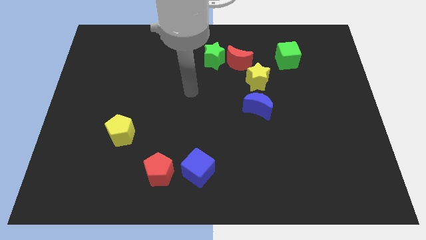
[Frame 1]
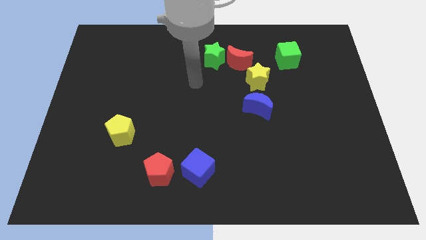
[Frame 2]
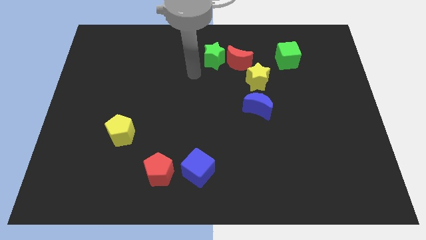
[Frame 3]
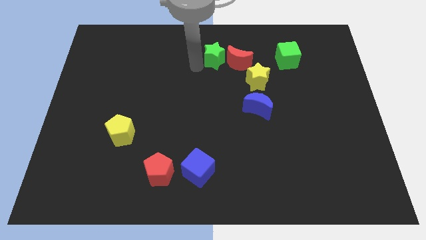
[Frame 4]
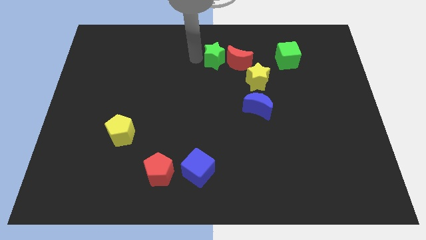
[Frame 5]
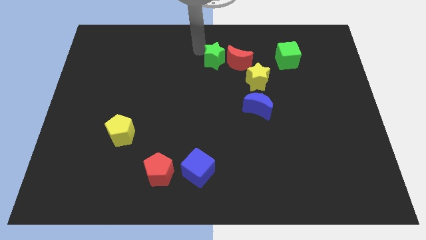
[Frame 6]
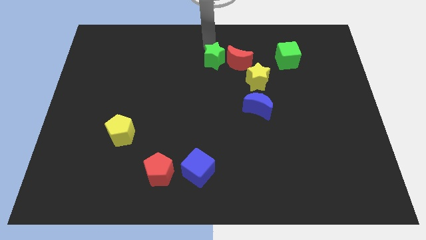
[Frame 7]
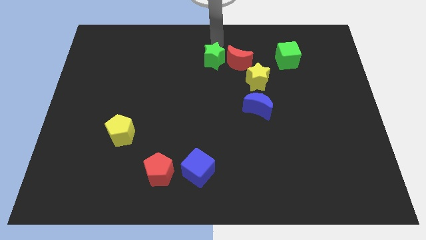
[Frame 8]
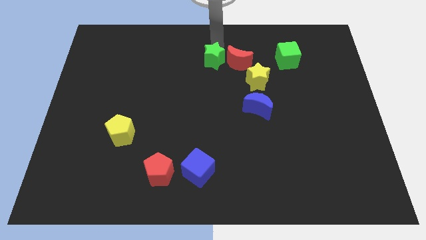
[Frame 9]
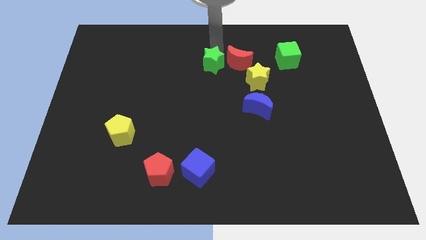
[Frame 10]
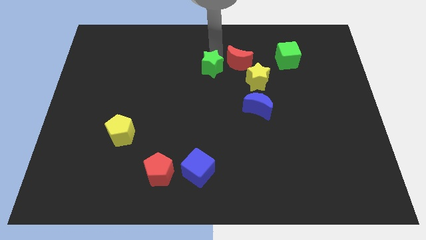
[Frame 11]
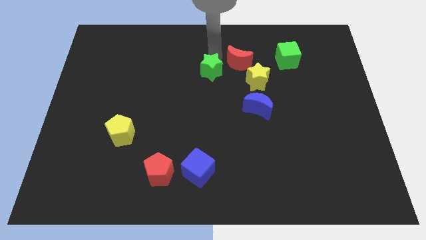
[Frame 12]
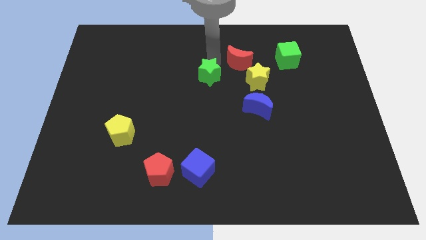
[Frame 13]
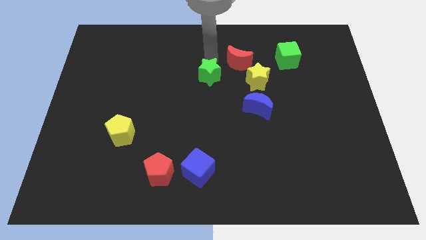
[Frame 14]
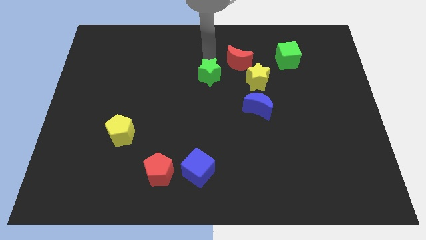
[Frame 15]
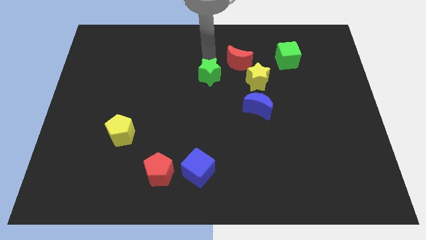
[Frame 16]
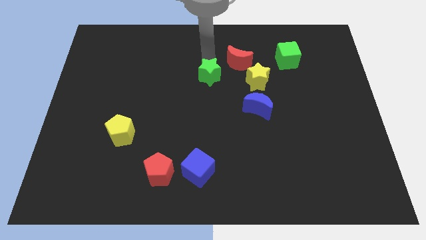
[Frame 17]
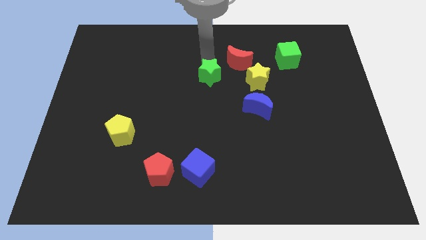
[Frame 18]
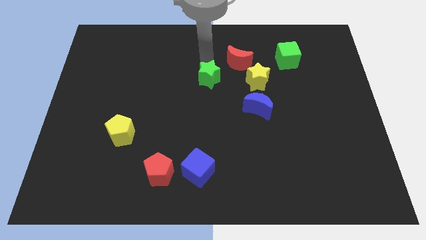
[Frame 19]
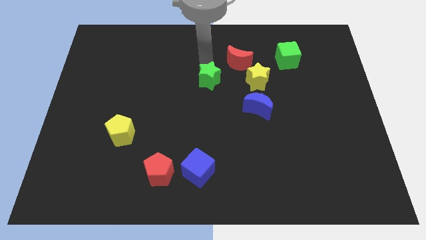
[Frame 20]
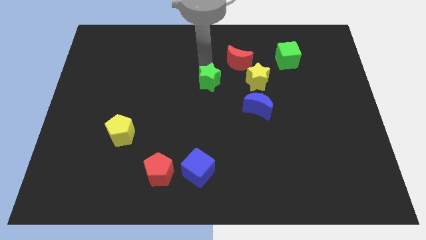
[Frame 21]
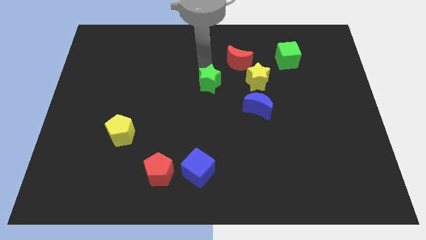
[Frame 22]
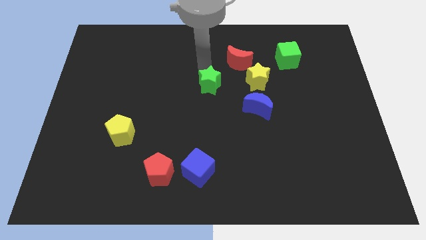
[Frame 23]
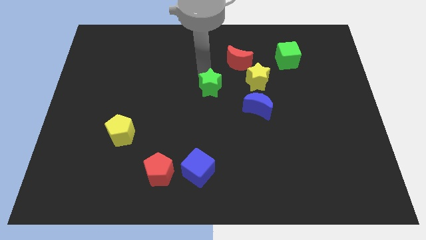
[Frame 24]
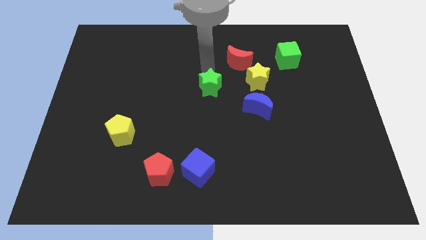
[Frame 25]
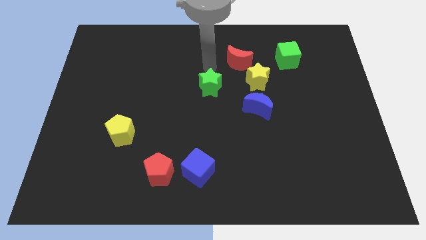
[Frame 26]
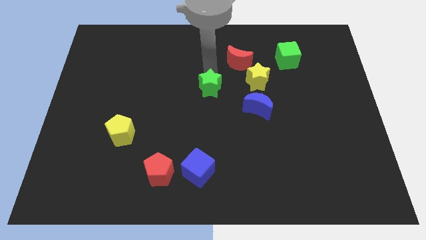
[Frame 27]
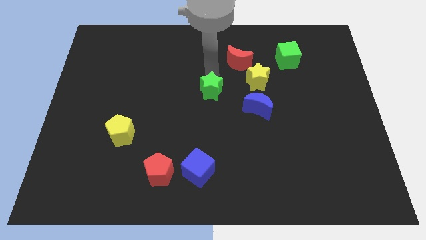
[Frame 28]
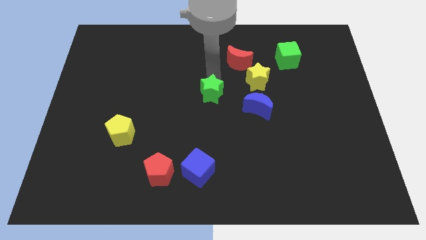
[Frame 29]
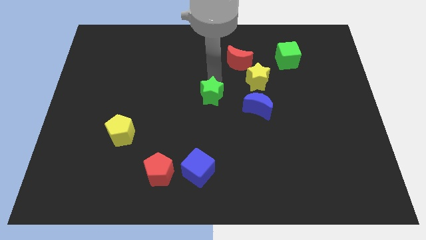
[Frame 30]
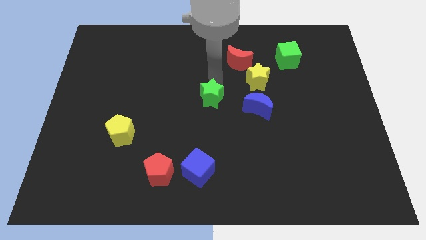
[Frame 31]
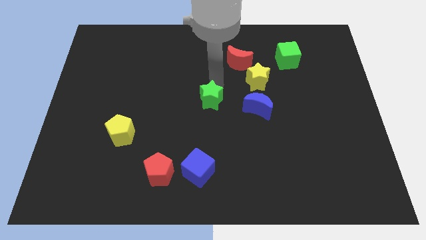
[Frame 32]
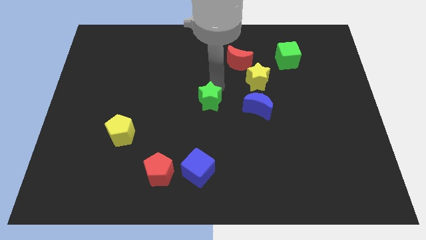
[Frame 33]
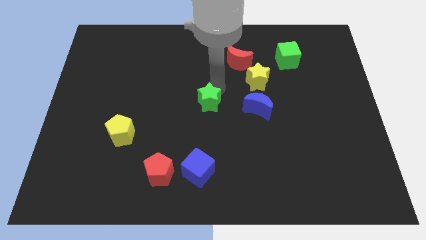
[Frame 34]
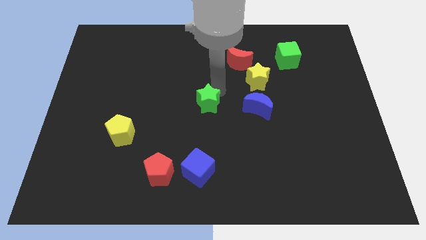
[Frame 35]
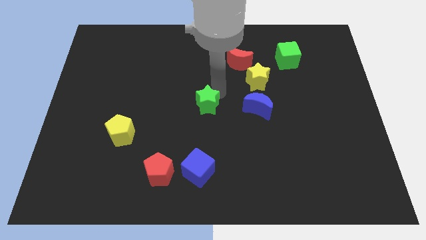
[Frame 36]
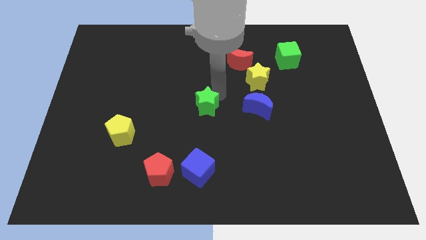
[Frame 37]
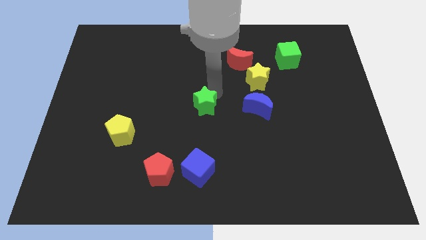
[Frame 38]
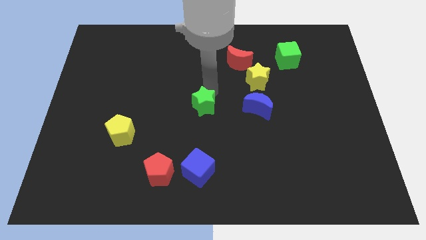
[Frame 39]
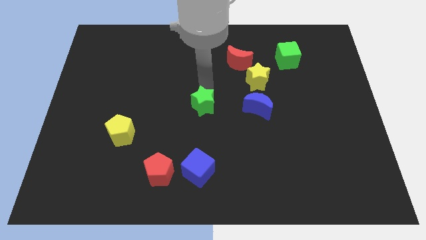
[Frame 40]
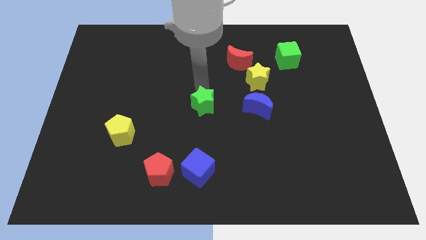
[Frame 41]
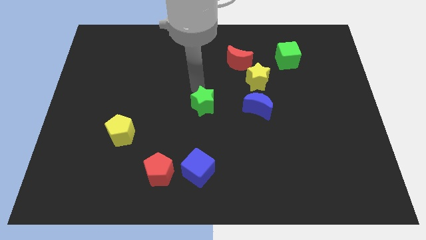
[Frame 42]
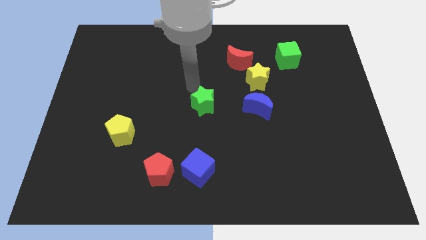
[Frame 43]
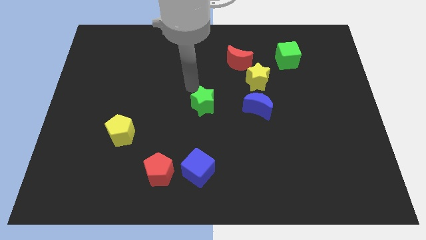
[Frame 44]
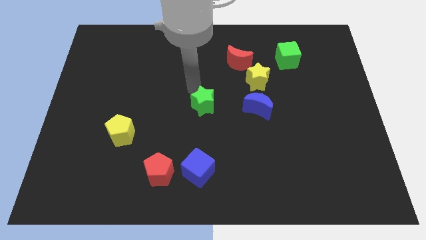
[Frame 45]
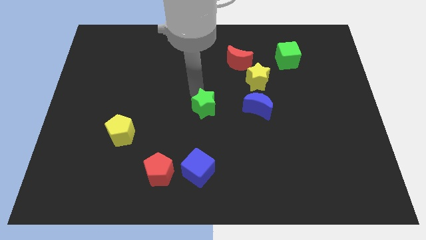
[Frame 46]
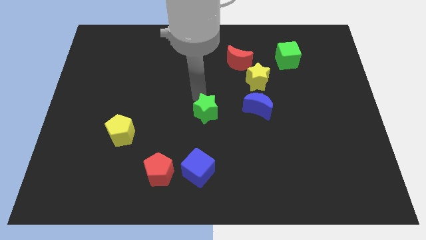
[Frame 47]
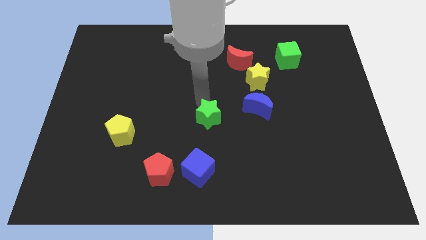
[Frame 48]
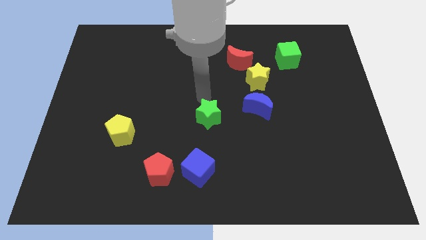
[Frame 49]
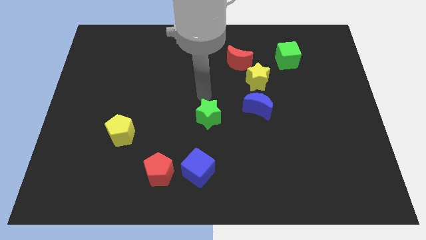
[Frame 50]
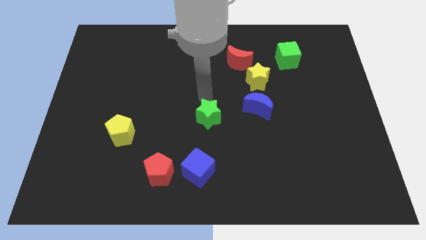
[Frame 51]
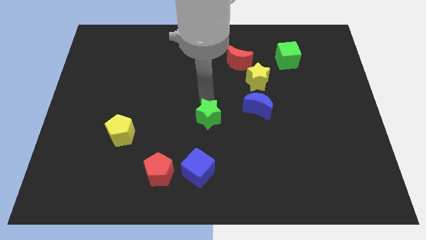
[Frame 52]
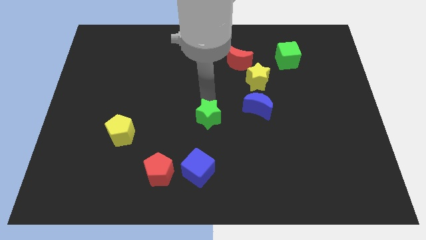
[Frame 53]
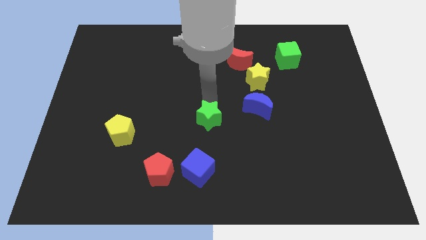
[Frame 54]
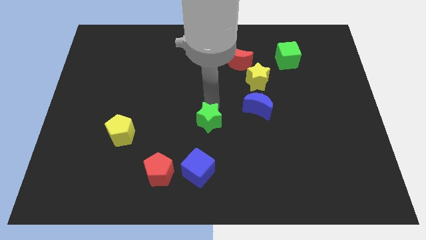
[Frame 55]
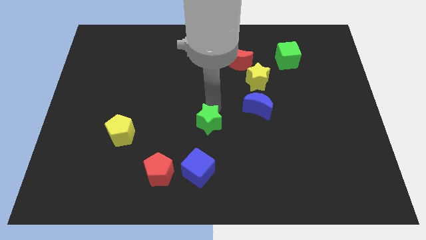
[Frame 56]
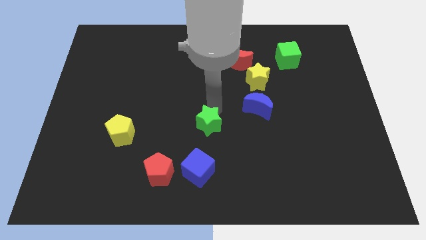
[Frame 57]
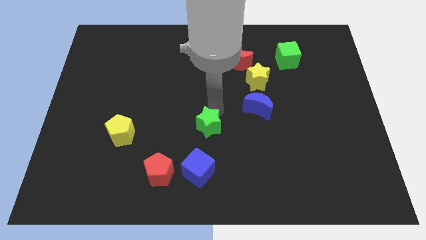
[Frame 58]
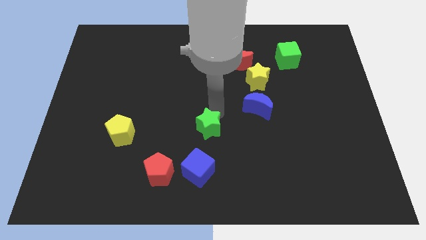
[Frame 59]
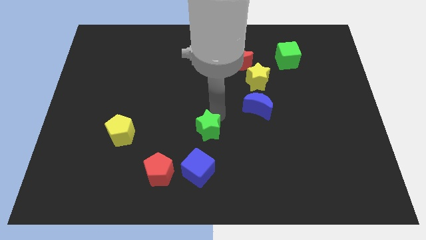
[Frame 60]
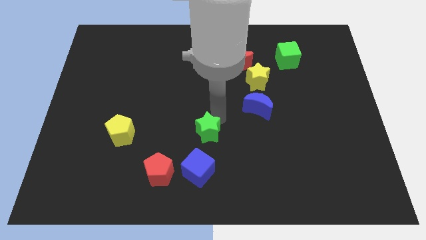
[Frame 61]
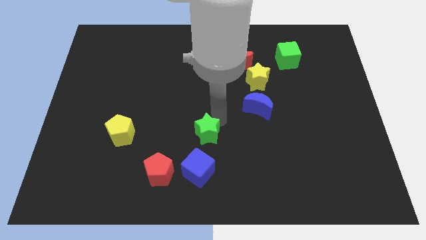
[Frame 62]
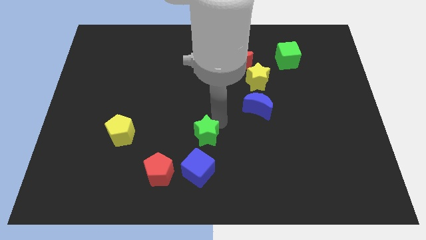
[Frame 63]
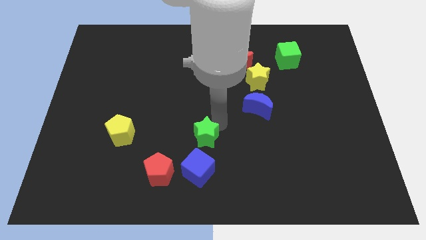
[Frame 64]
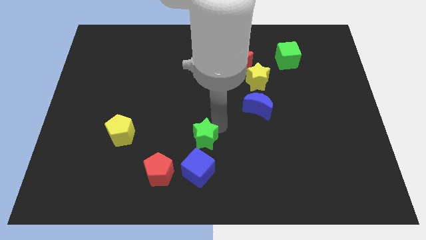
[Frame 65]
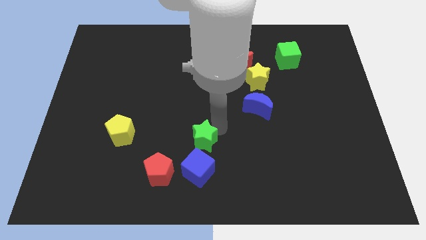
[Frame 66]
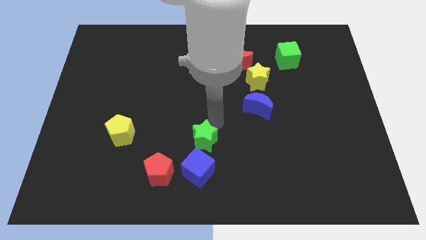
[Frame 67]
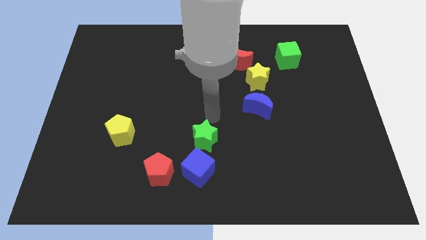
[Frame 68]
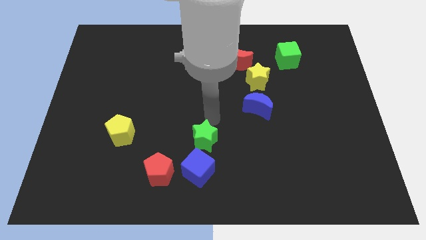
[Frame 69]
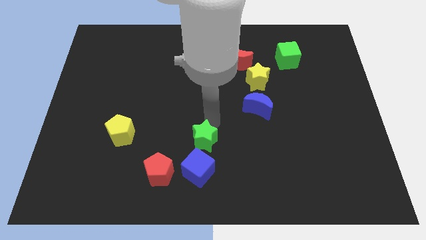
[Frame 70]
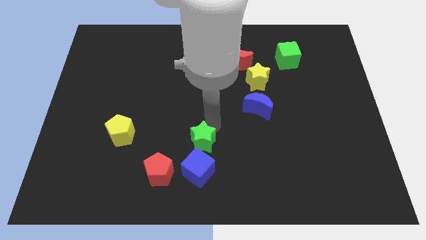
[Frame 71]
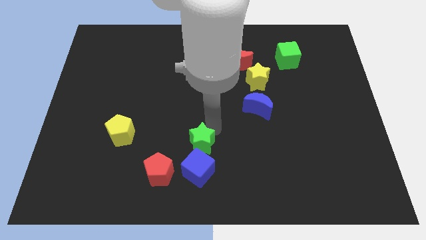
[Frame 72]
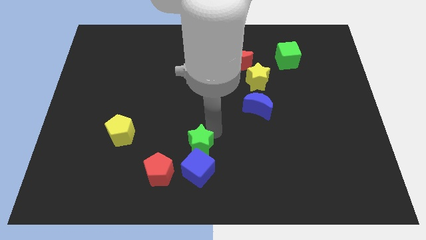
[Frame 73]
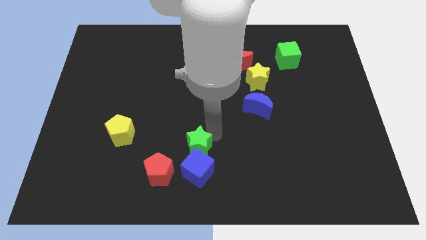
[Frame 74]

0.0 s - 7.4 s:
move the green star next to the blue cube
